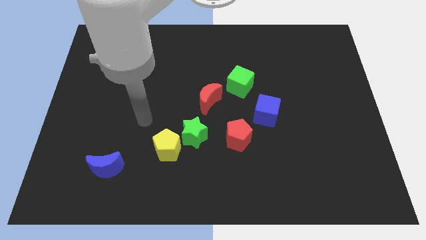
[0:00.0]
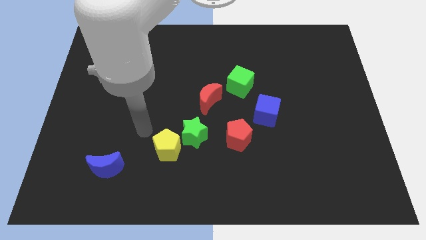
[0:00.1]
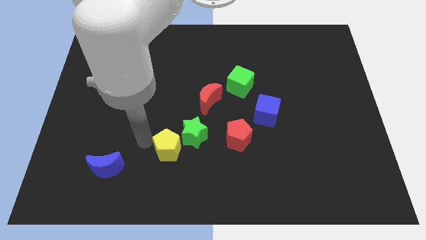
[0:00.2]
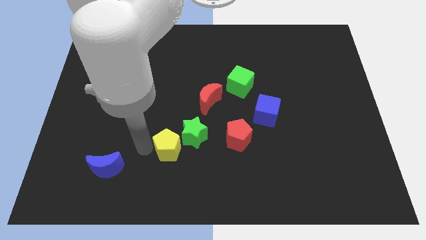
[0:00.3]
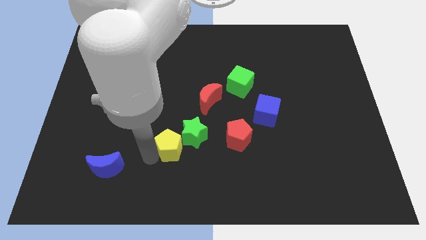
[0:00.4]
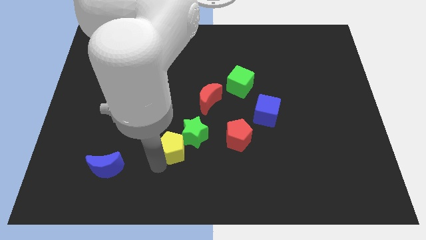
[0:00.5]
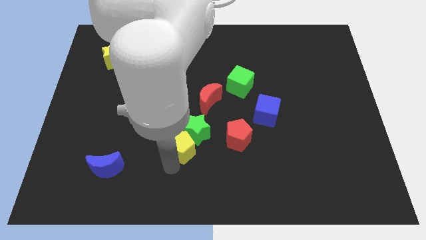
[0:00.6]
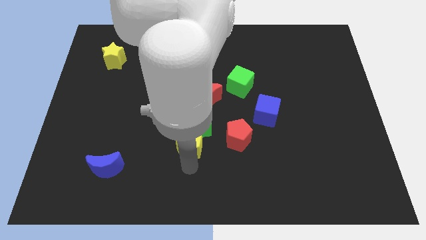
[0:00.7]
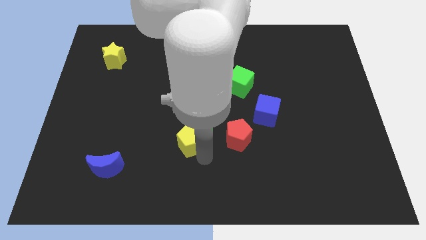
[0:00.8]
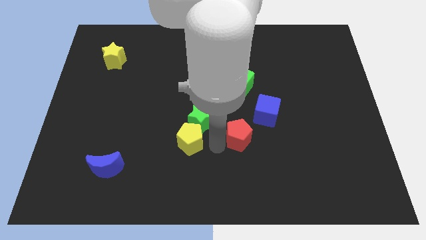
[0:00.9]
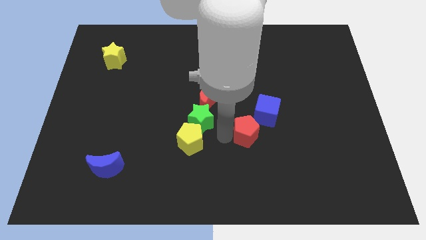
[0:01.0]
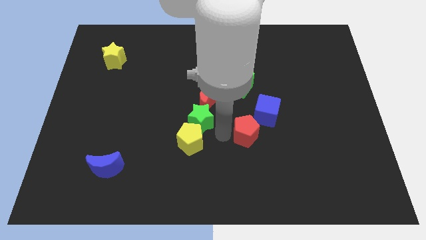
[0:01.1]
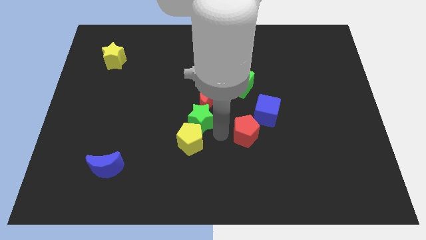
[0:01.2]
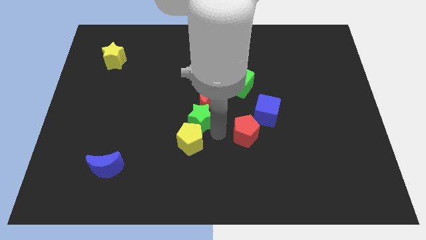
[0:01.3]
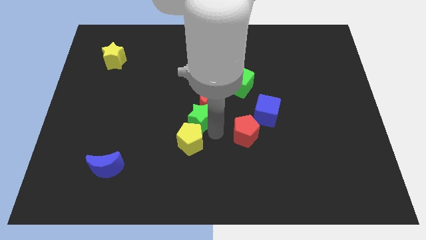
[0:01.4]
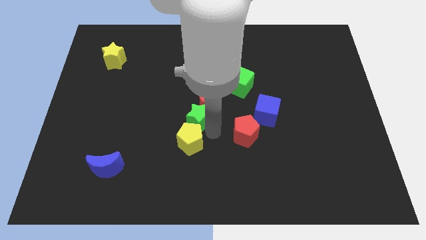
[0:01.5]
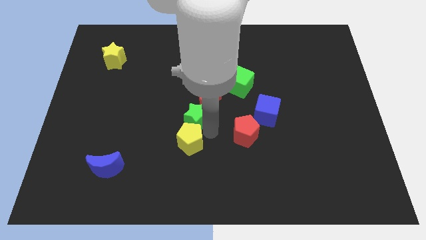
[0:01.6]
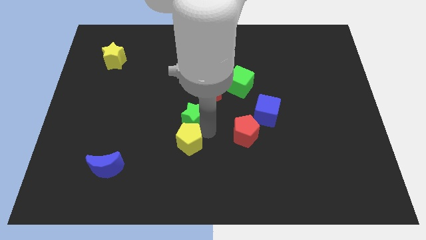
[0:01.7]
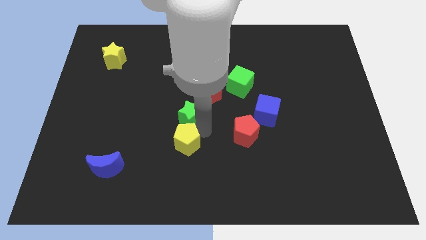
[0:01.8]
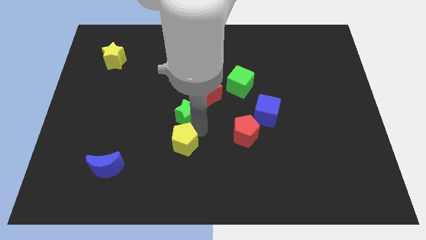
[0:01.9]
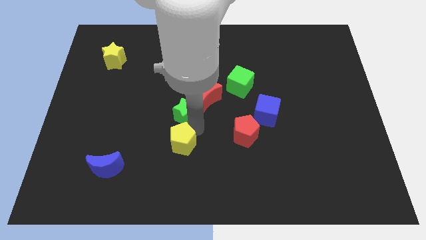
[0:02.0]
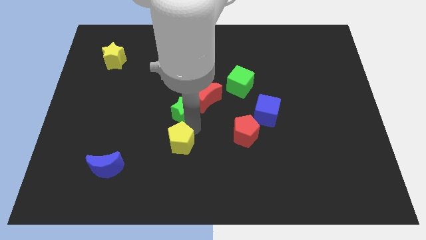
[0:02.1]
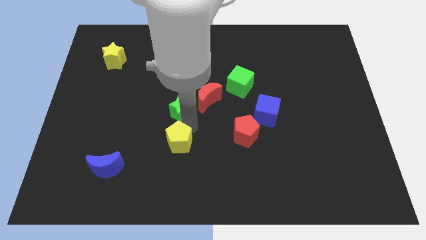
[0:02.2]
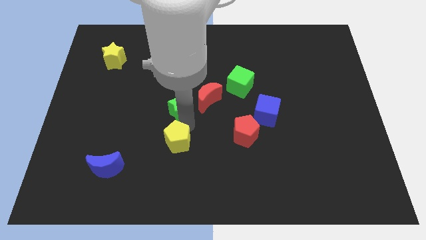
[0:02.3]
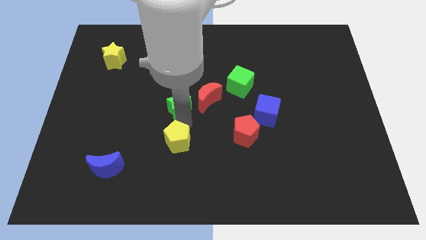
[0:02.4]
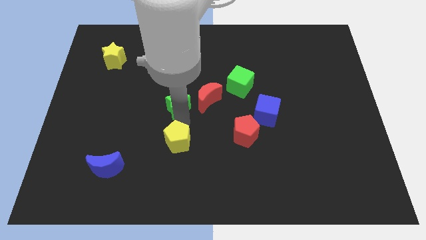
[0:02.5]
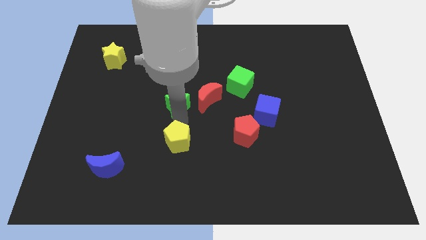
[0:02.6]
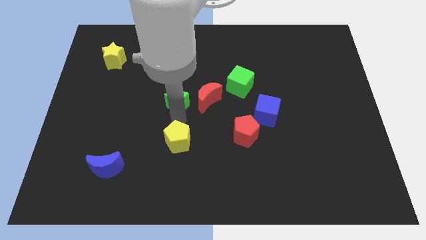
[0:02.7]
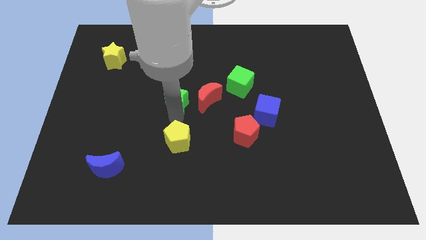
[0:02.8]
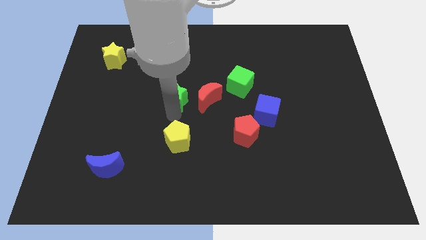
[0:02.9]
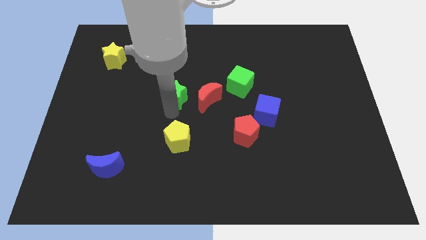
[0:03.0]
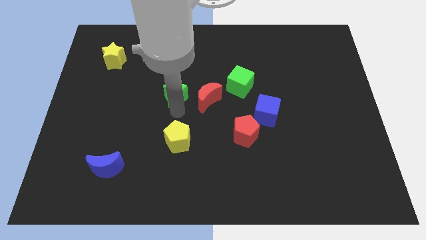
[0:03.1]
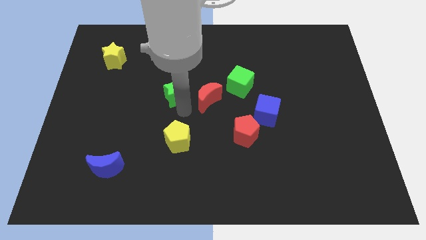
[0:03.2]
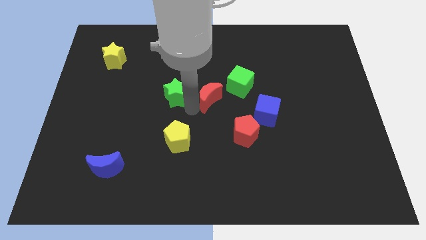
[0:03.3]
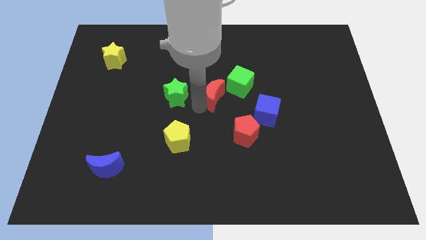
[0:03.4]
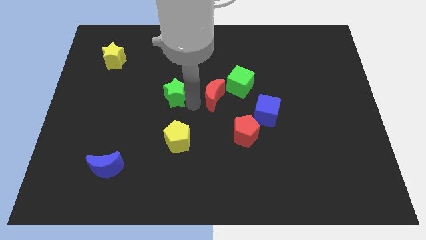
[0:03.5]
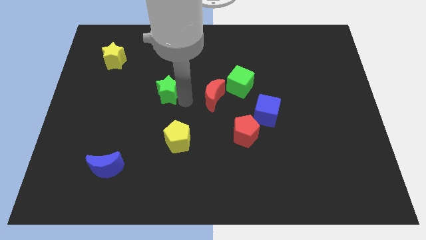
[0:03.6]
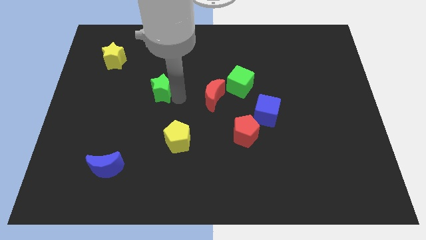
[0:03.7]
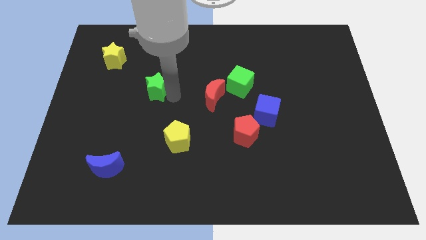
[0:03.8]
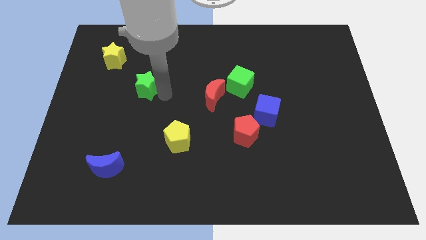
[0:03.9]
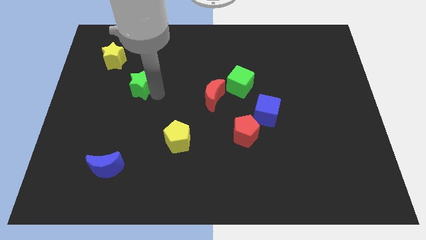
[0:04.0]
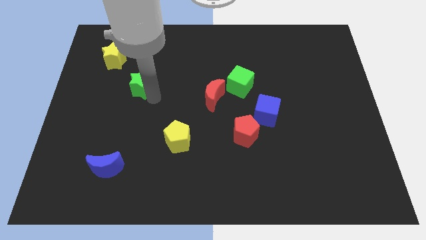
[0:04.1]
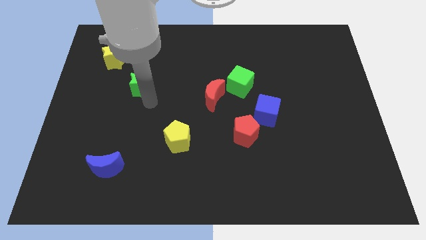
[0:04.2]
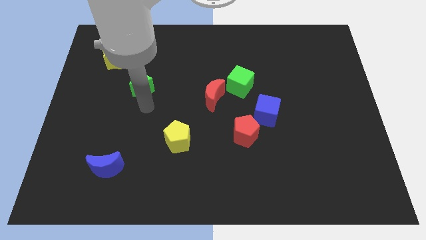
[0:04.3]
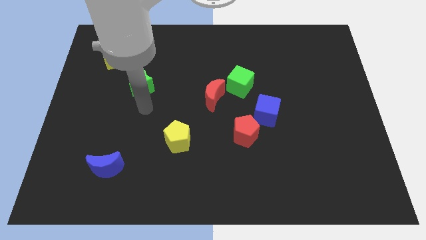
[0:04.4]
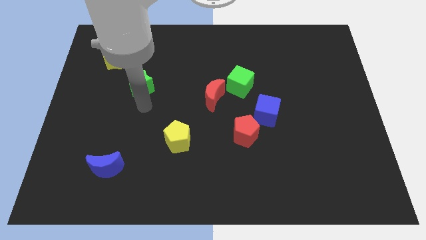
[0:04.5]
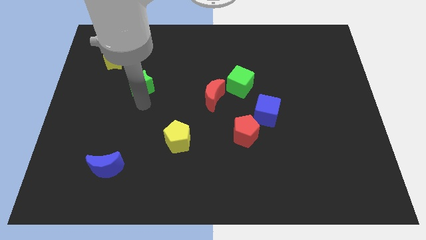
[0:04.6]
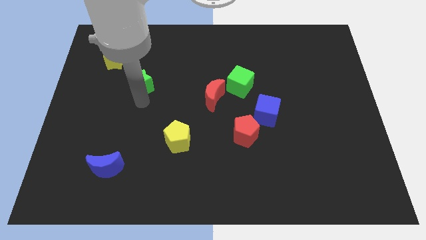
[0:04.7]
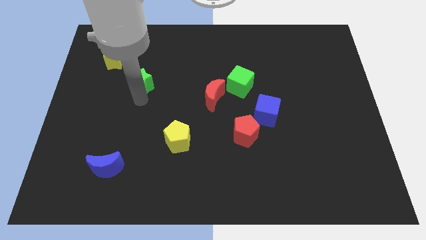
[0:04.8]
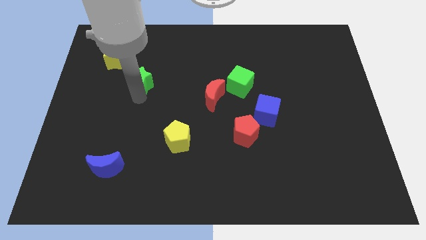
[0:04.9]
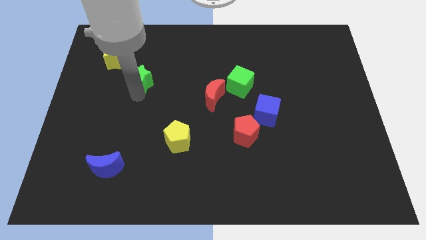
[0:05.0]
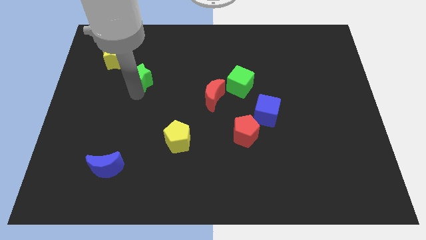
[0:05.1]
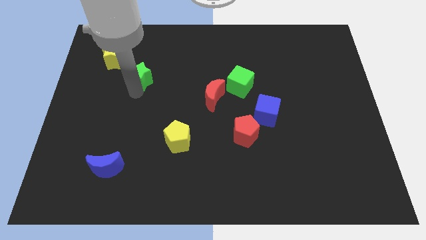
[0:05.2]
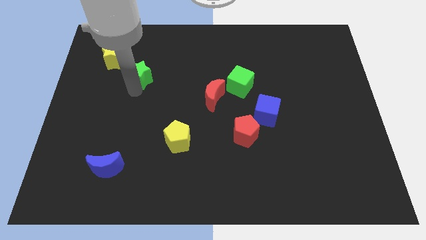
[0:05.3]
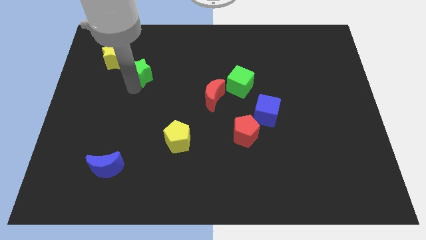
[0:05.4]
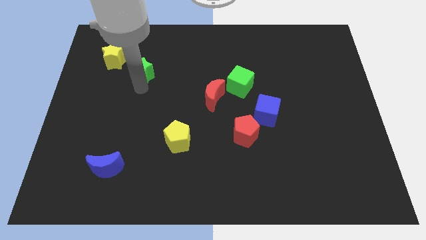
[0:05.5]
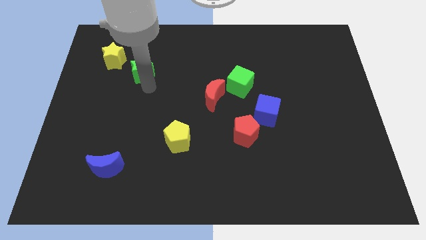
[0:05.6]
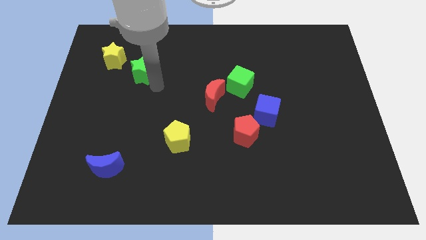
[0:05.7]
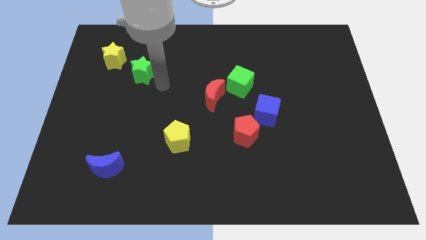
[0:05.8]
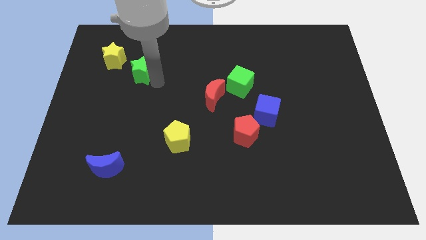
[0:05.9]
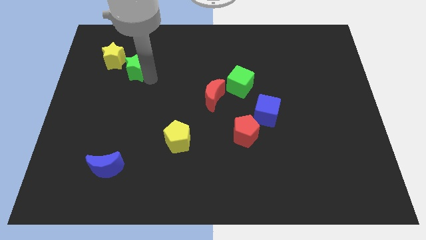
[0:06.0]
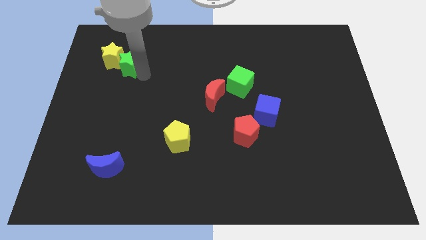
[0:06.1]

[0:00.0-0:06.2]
put the green star next to the yellow star
